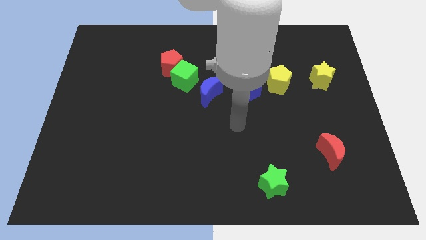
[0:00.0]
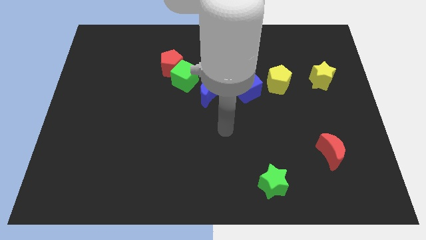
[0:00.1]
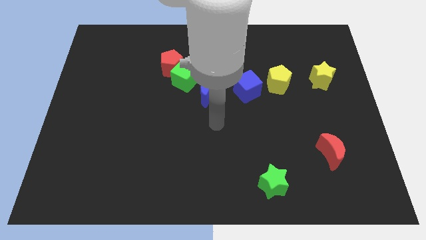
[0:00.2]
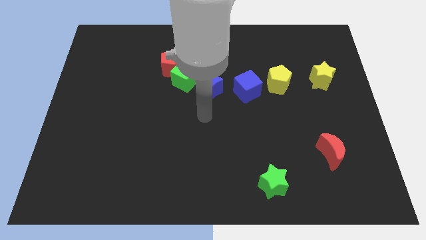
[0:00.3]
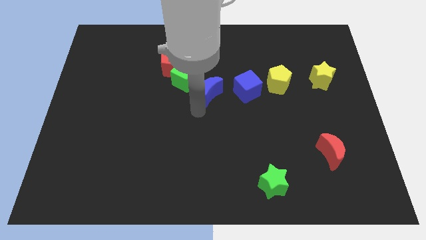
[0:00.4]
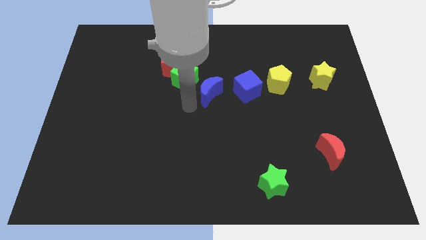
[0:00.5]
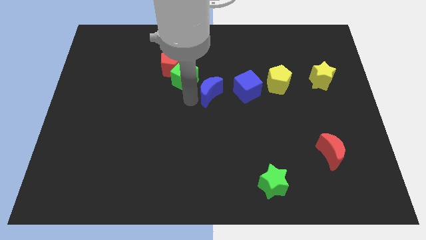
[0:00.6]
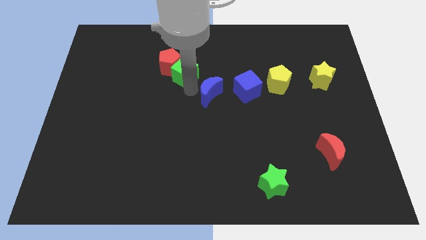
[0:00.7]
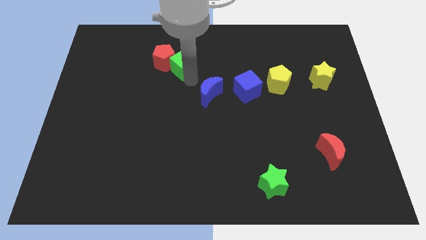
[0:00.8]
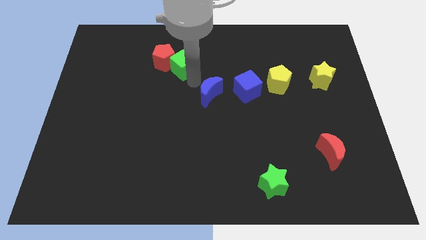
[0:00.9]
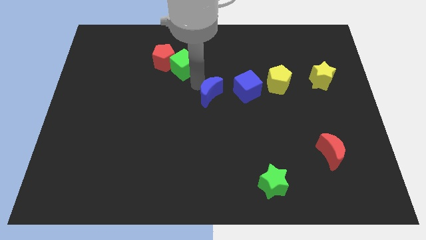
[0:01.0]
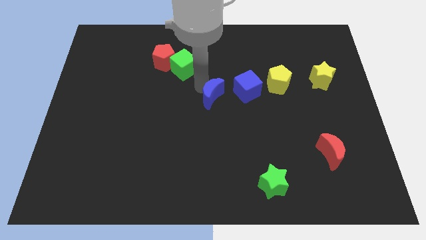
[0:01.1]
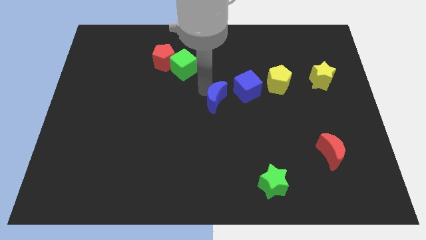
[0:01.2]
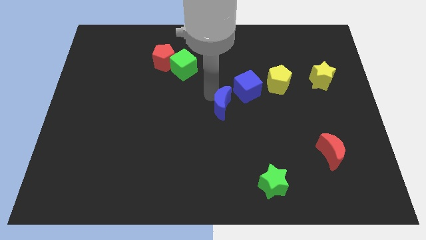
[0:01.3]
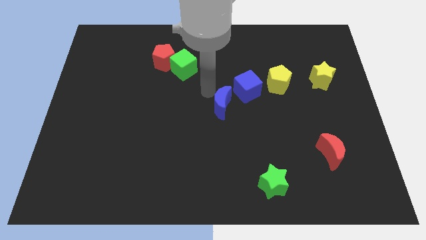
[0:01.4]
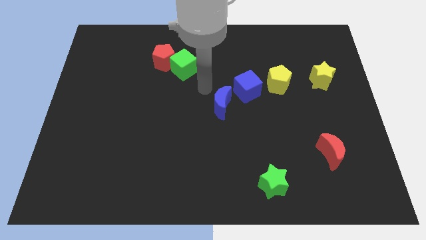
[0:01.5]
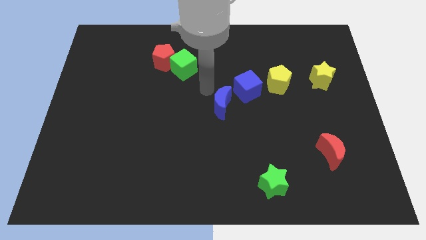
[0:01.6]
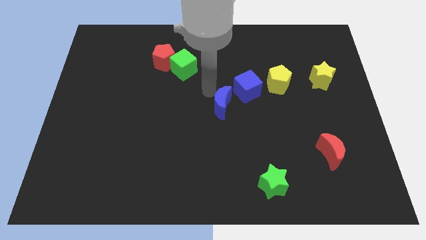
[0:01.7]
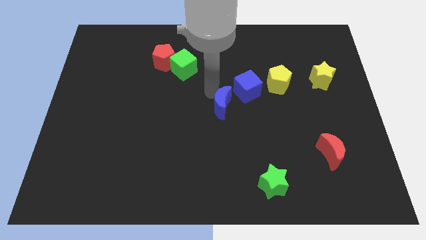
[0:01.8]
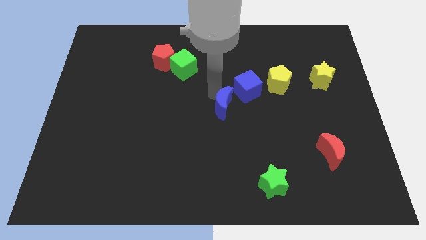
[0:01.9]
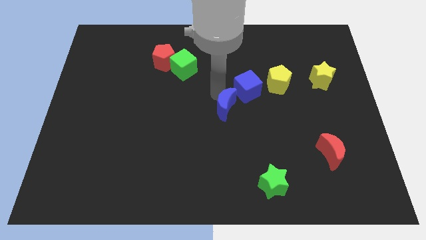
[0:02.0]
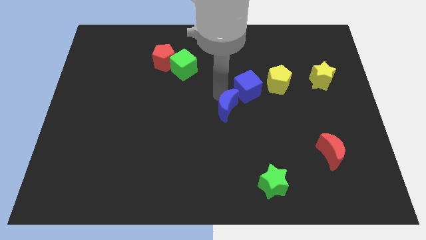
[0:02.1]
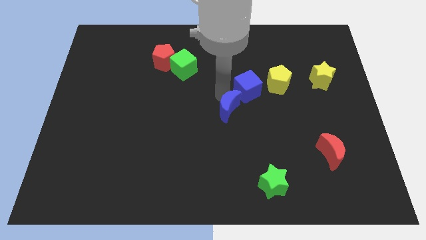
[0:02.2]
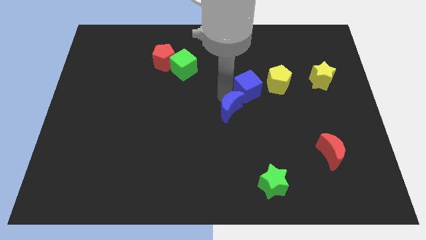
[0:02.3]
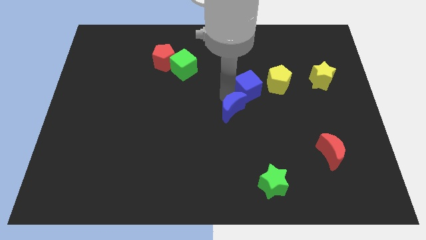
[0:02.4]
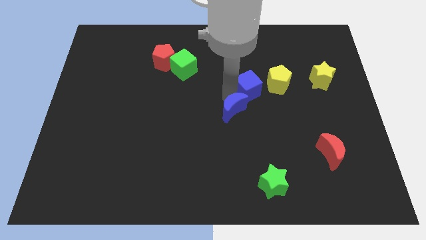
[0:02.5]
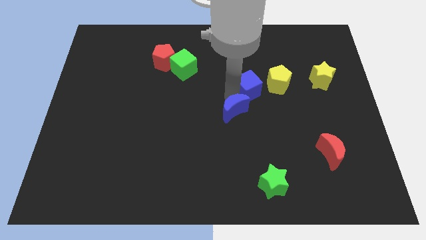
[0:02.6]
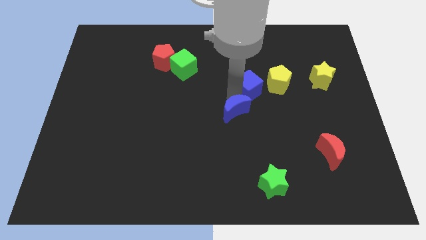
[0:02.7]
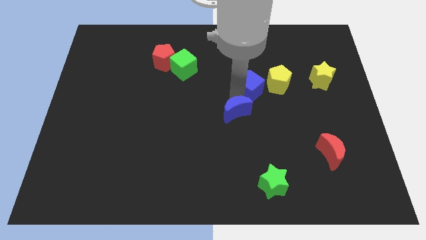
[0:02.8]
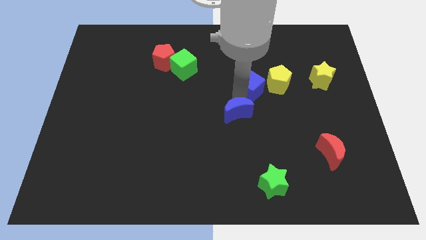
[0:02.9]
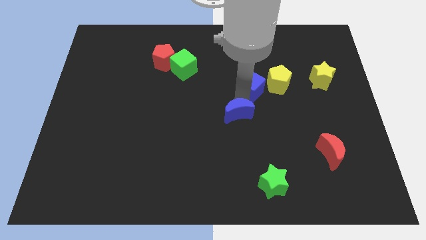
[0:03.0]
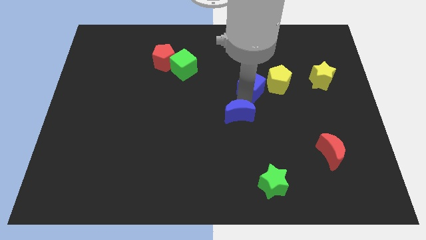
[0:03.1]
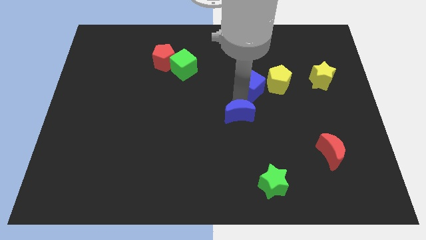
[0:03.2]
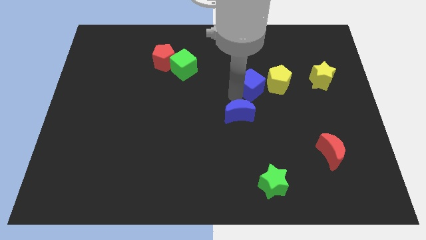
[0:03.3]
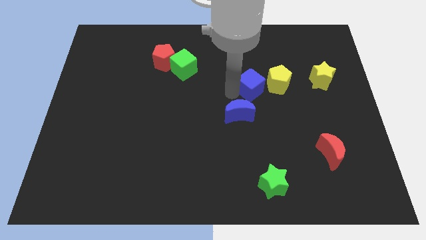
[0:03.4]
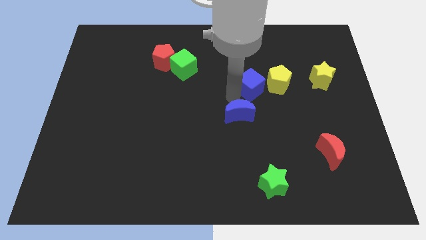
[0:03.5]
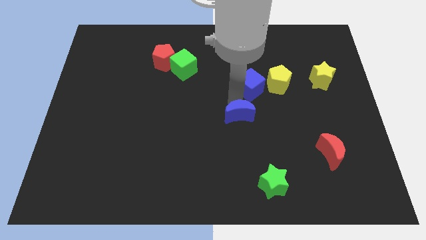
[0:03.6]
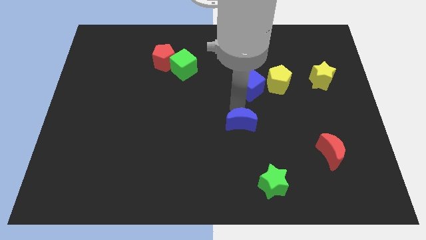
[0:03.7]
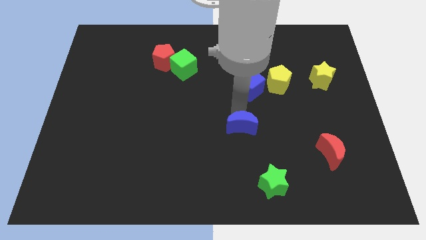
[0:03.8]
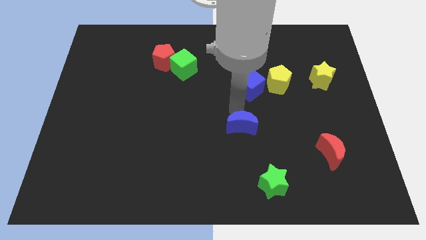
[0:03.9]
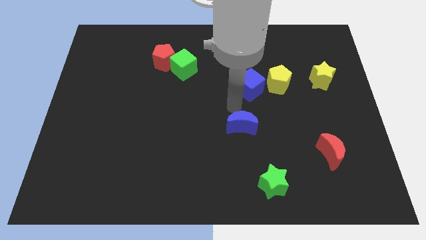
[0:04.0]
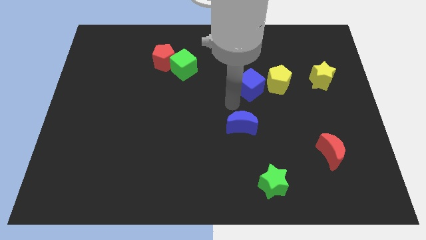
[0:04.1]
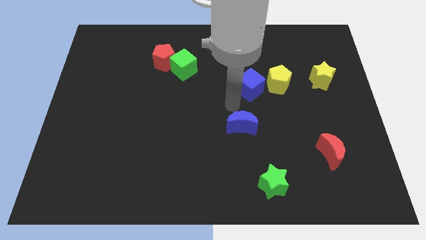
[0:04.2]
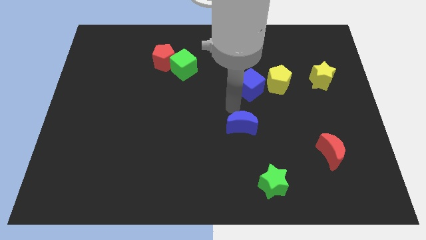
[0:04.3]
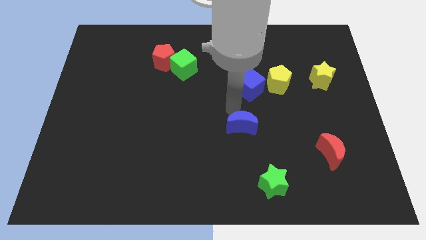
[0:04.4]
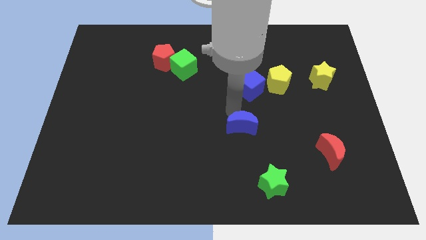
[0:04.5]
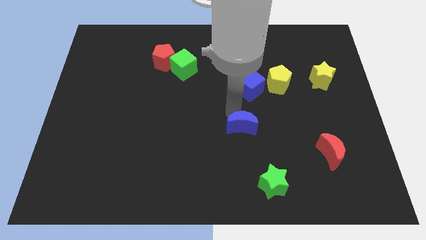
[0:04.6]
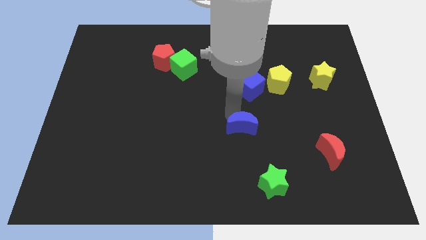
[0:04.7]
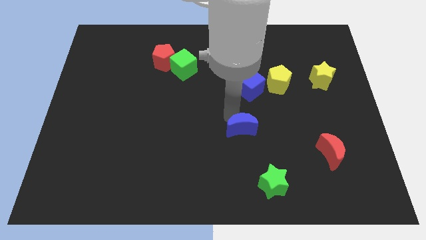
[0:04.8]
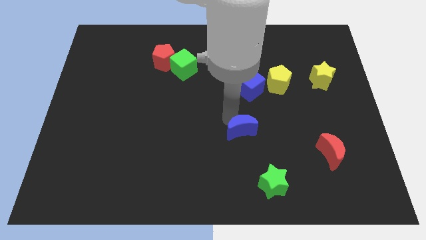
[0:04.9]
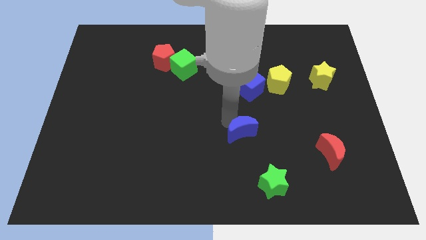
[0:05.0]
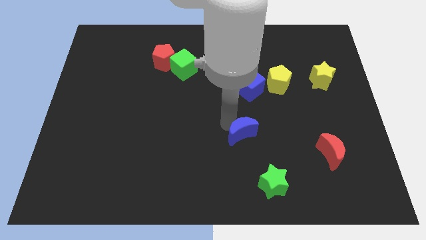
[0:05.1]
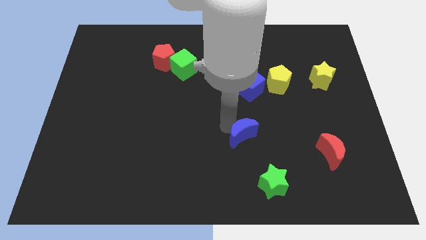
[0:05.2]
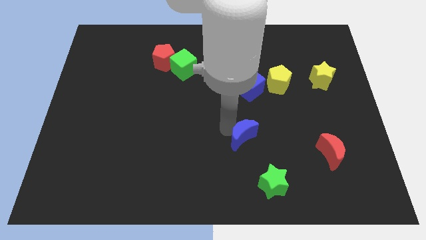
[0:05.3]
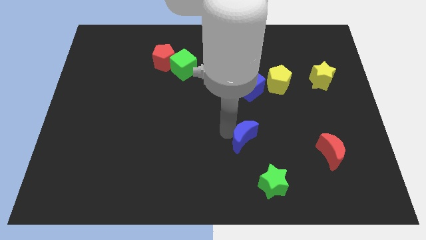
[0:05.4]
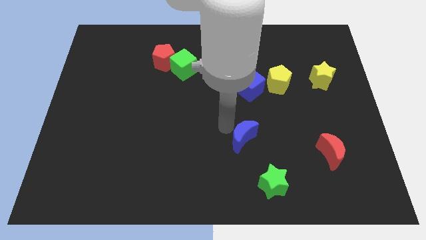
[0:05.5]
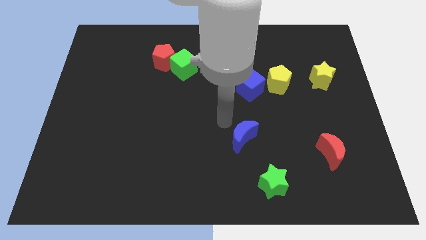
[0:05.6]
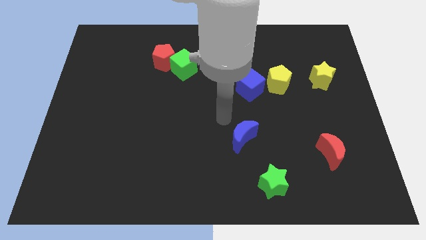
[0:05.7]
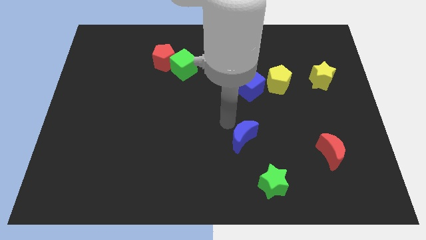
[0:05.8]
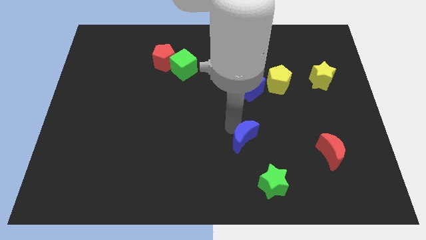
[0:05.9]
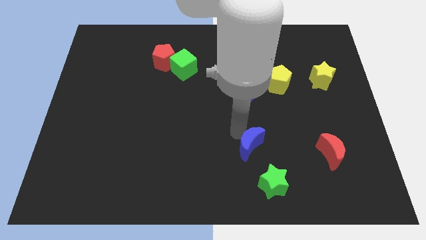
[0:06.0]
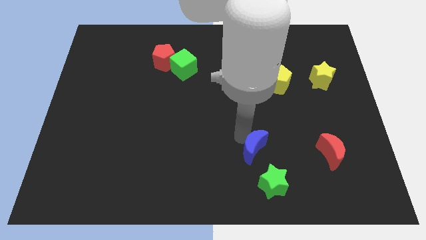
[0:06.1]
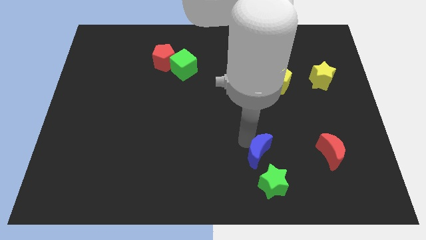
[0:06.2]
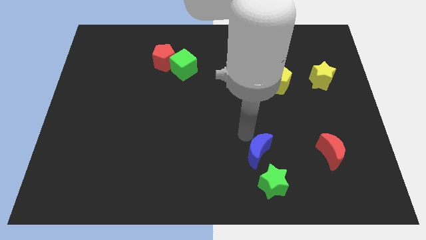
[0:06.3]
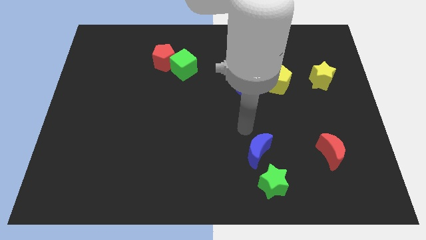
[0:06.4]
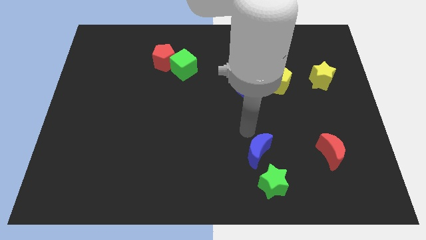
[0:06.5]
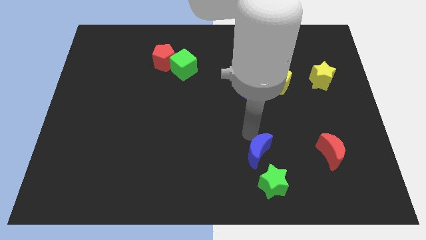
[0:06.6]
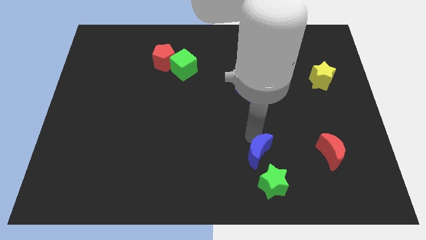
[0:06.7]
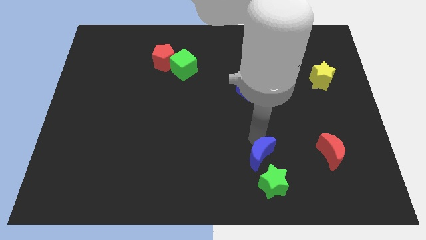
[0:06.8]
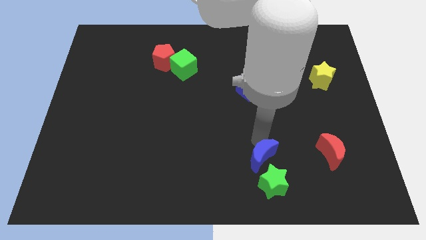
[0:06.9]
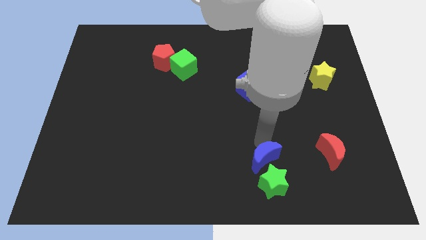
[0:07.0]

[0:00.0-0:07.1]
push the blue moon next to the green star
